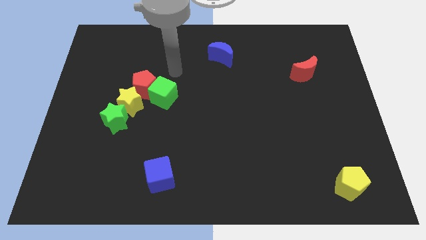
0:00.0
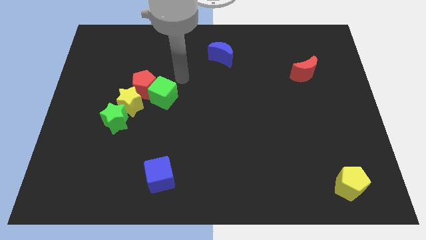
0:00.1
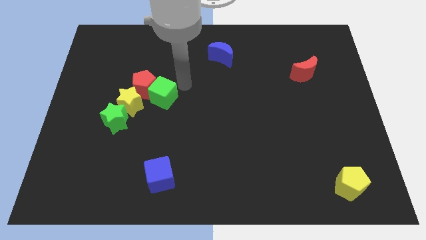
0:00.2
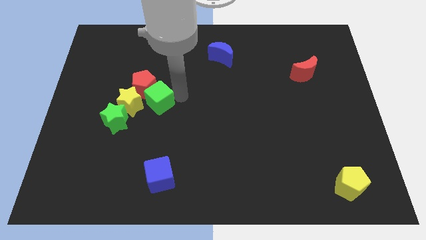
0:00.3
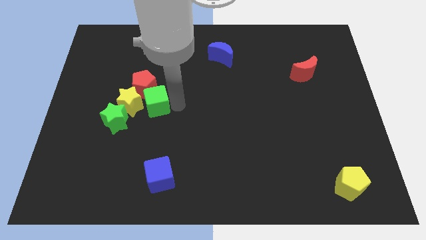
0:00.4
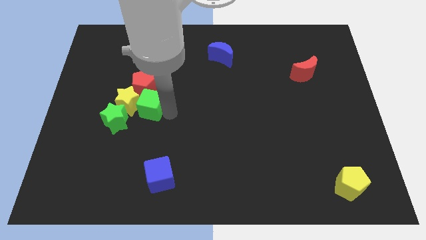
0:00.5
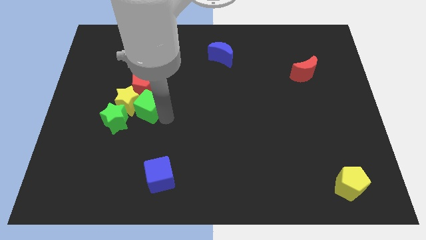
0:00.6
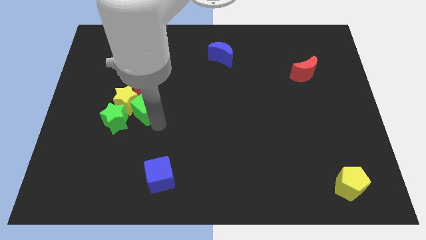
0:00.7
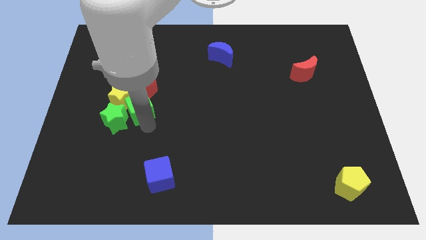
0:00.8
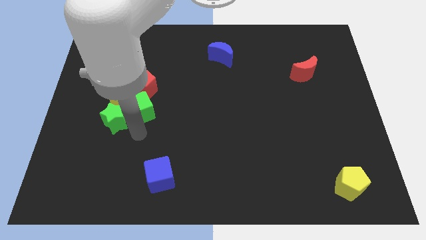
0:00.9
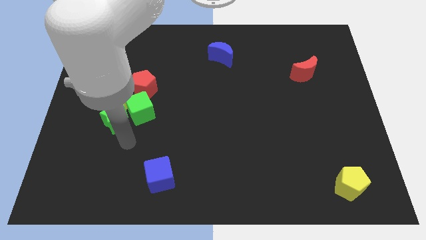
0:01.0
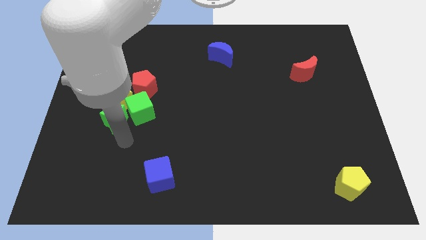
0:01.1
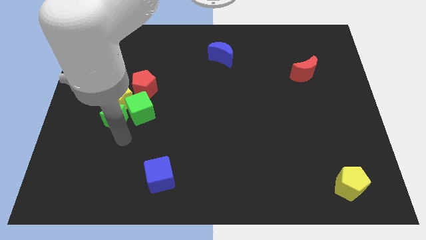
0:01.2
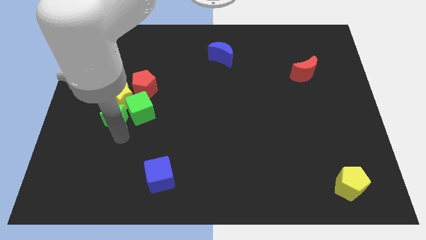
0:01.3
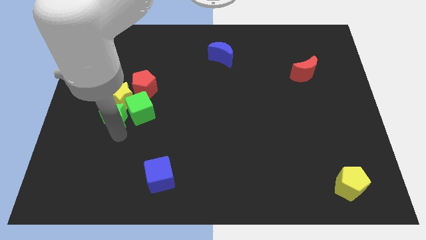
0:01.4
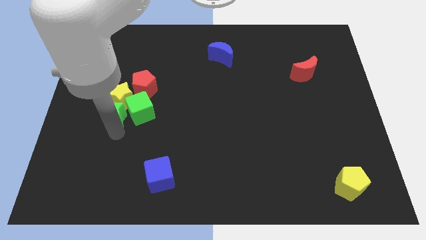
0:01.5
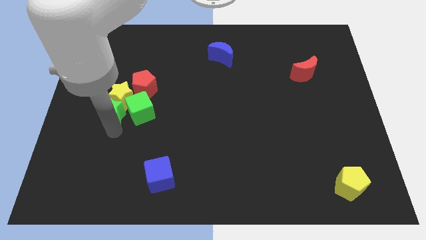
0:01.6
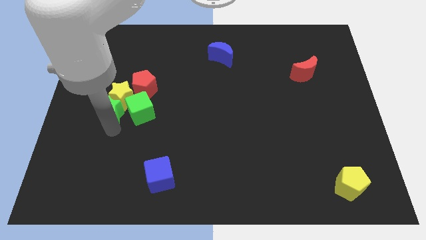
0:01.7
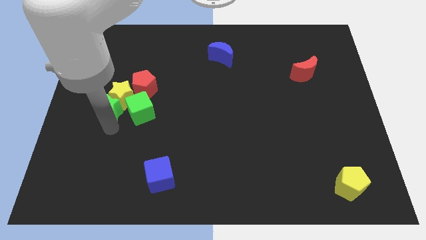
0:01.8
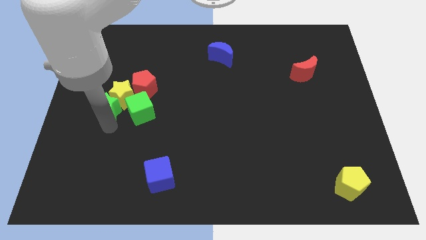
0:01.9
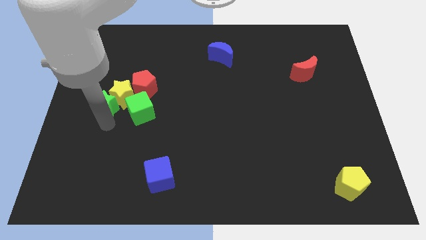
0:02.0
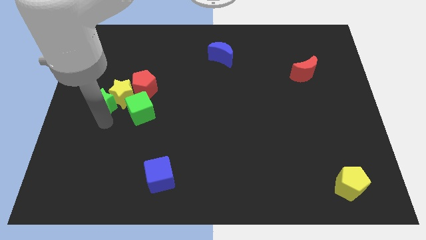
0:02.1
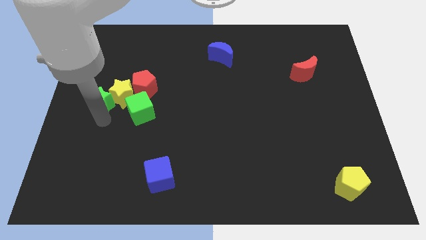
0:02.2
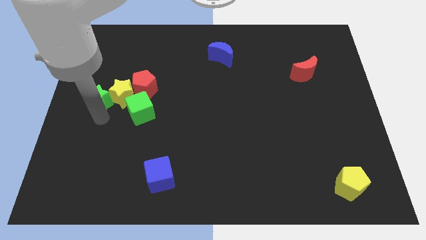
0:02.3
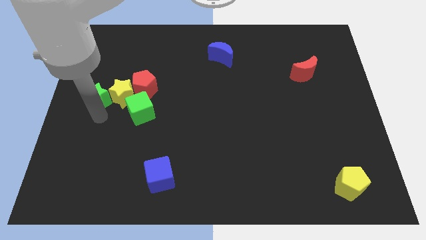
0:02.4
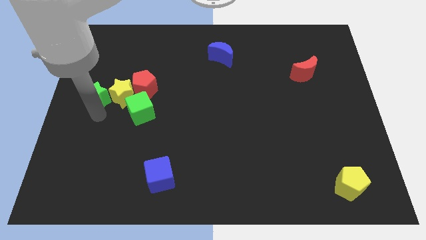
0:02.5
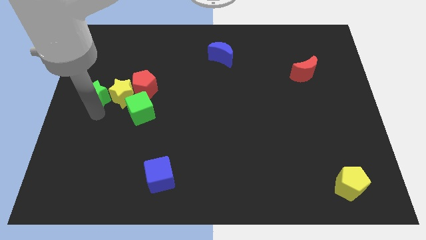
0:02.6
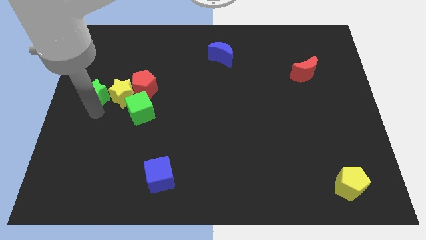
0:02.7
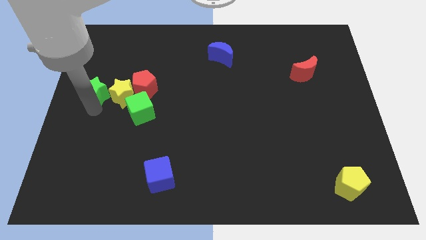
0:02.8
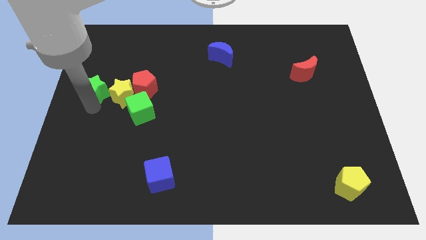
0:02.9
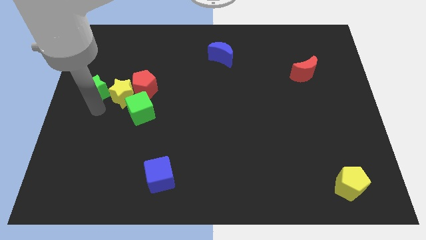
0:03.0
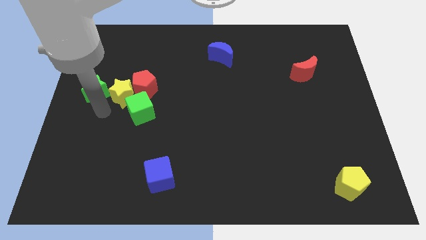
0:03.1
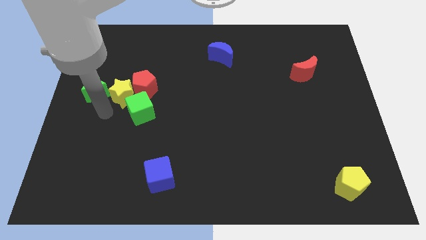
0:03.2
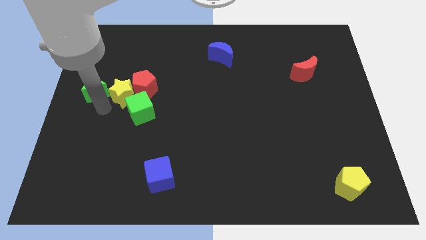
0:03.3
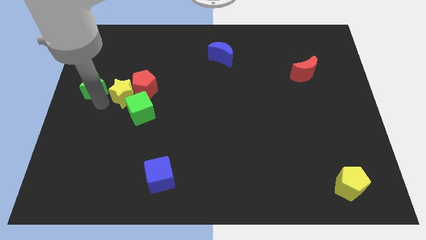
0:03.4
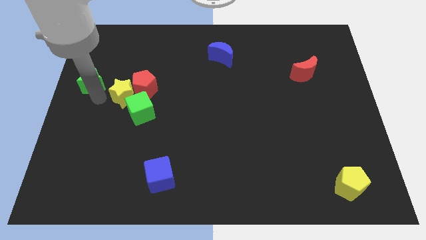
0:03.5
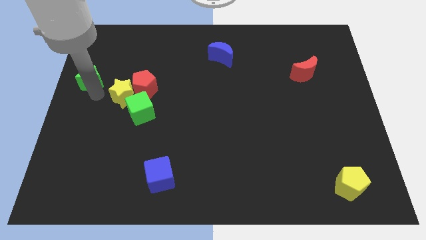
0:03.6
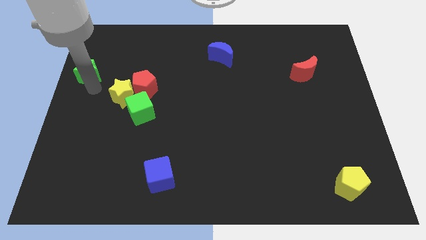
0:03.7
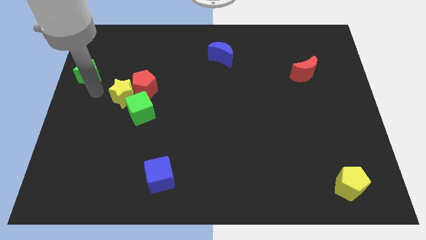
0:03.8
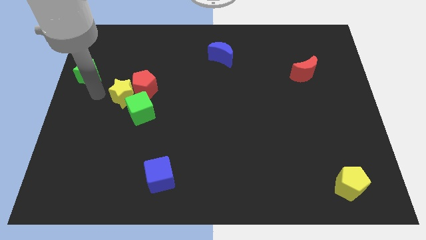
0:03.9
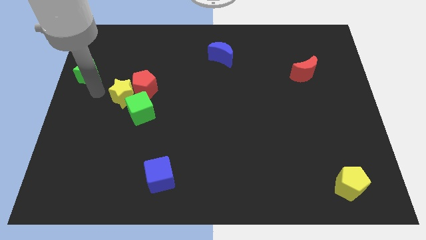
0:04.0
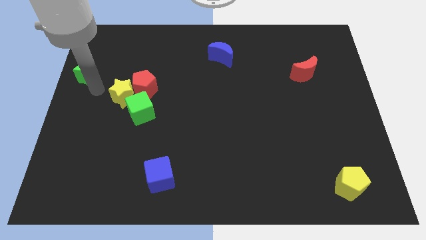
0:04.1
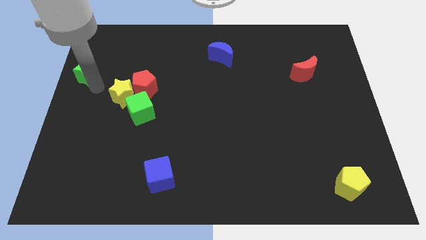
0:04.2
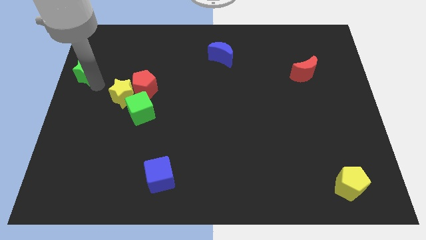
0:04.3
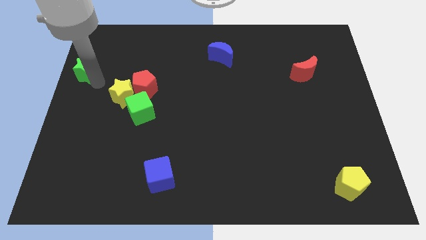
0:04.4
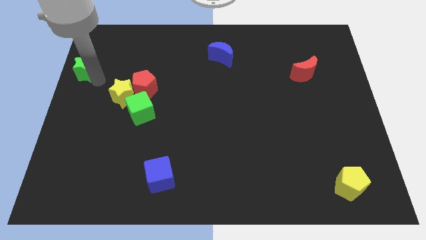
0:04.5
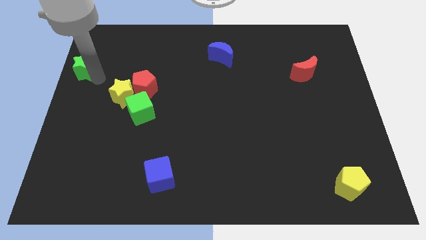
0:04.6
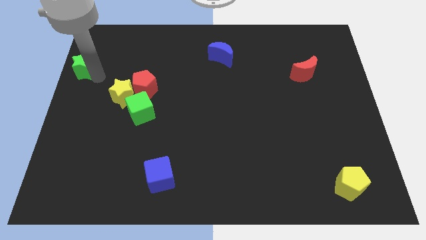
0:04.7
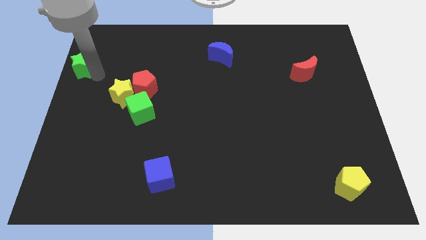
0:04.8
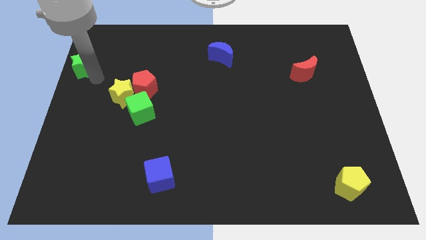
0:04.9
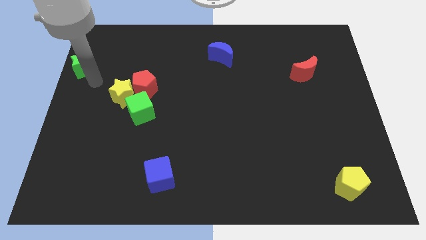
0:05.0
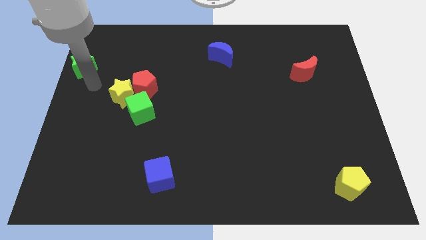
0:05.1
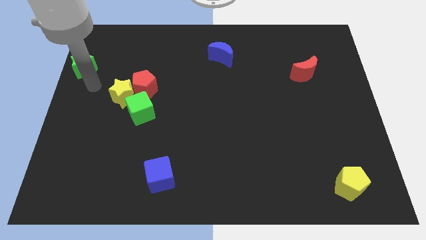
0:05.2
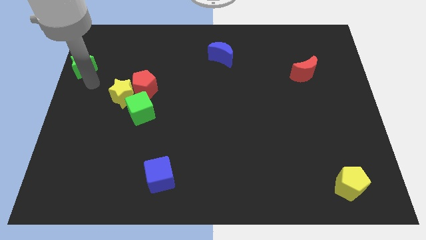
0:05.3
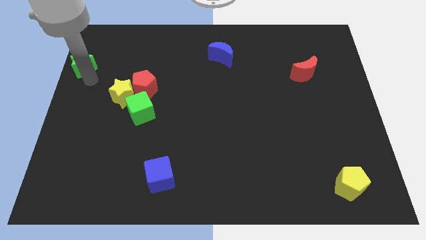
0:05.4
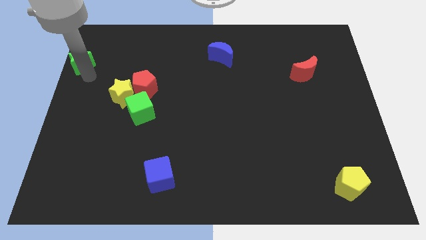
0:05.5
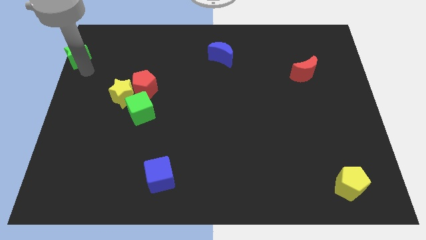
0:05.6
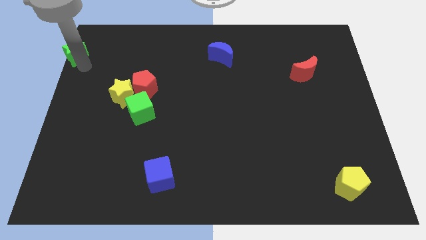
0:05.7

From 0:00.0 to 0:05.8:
push the green star to the top left of the board

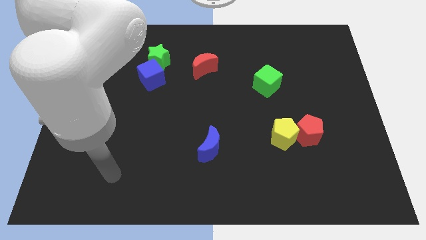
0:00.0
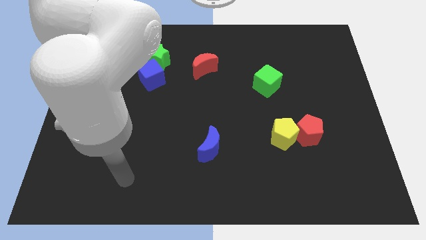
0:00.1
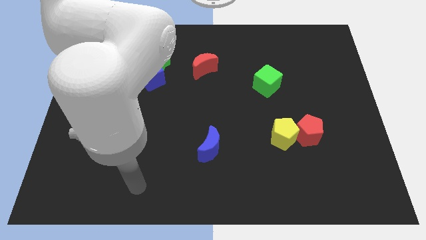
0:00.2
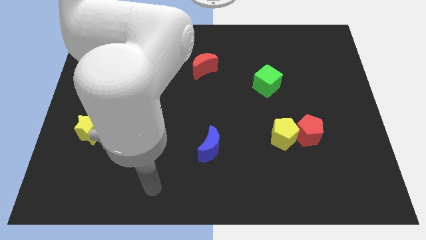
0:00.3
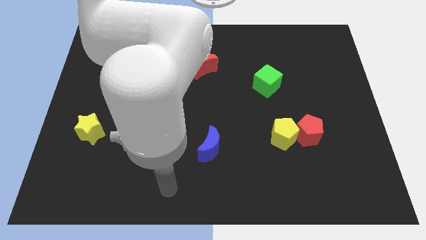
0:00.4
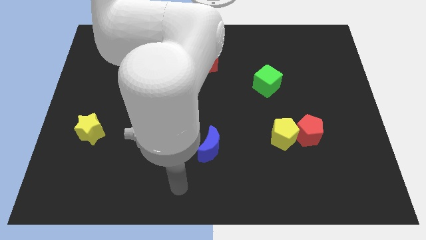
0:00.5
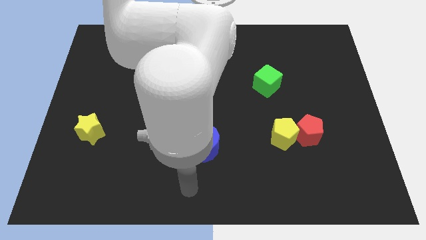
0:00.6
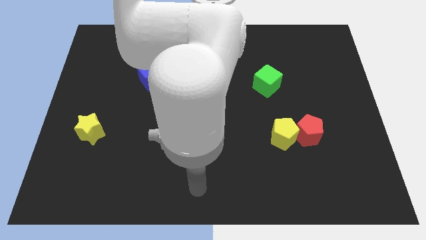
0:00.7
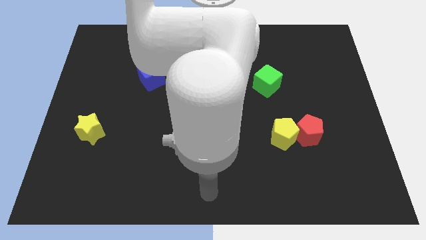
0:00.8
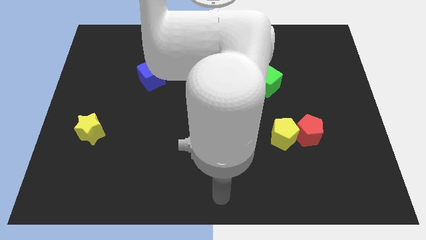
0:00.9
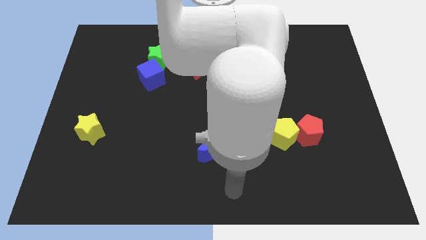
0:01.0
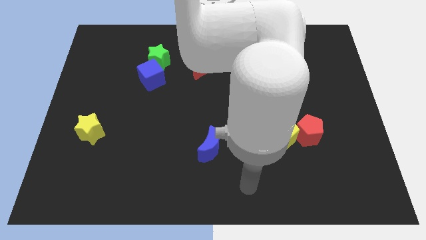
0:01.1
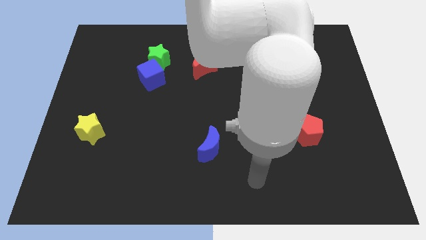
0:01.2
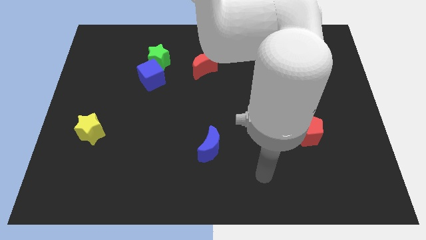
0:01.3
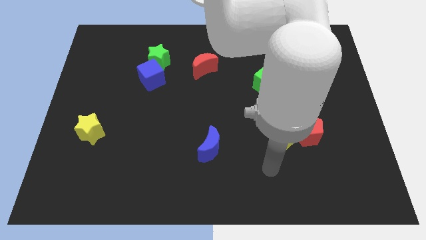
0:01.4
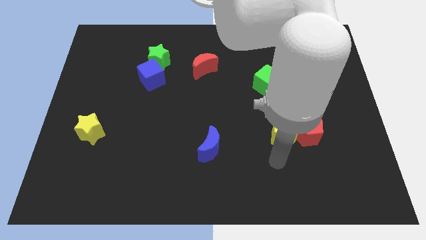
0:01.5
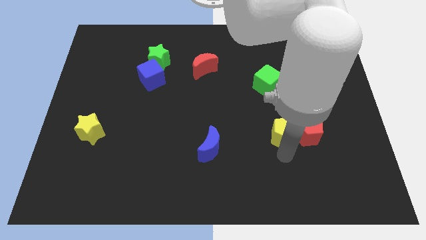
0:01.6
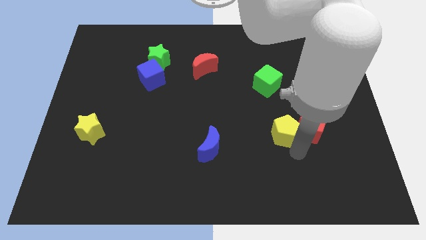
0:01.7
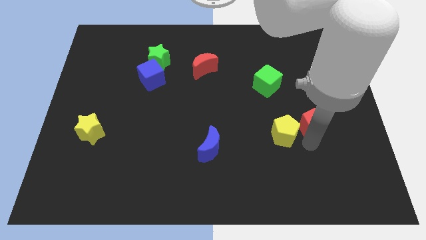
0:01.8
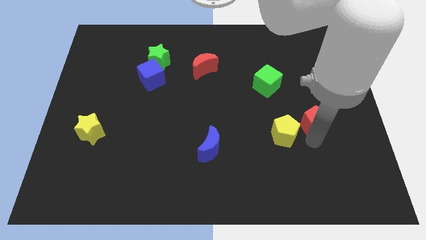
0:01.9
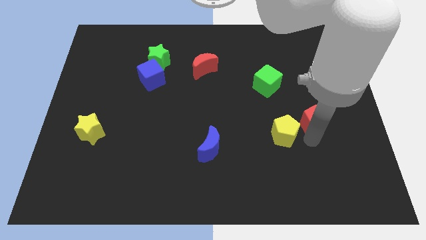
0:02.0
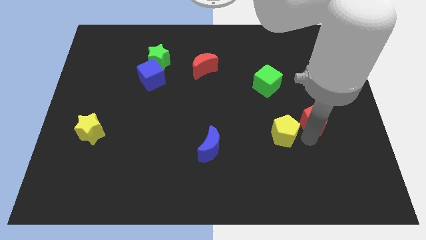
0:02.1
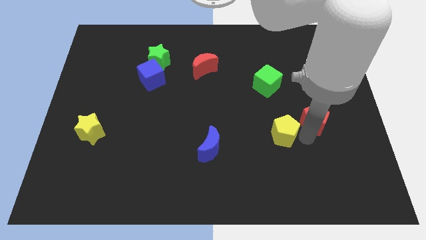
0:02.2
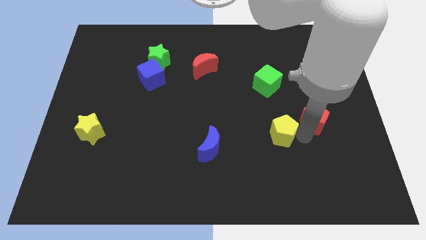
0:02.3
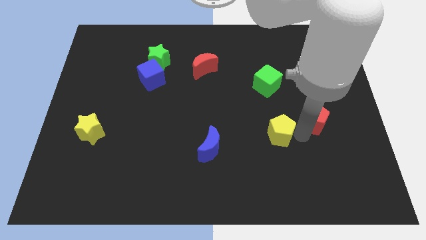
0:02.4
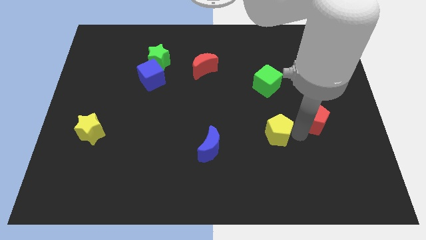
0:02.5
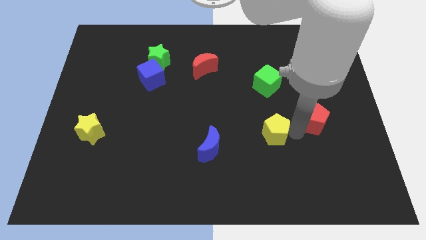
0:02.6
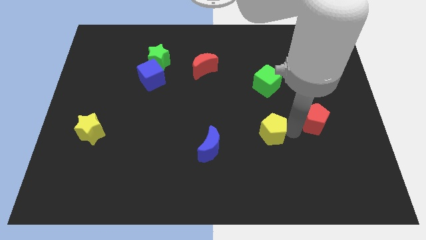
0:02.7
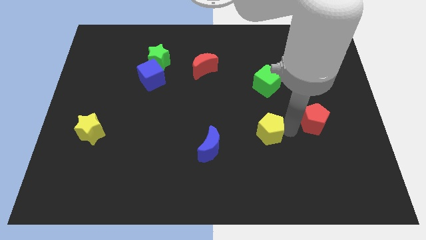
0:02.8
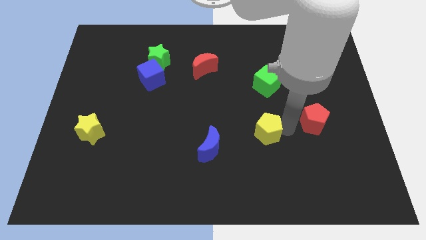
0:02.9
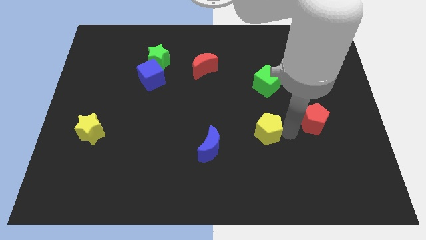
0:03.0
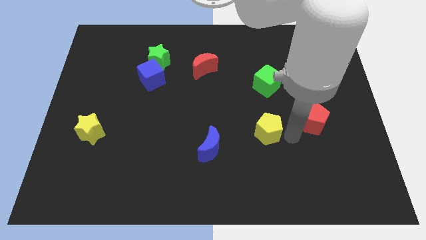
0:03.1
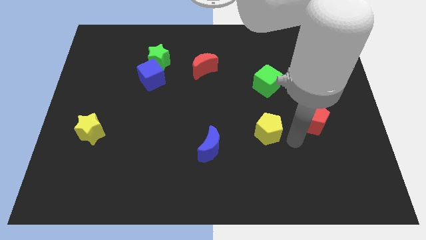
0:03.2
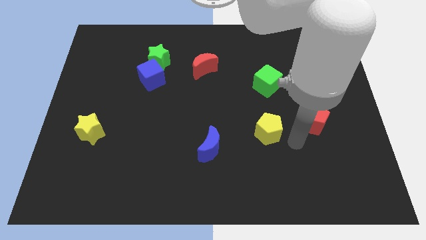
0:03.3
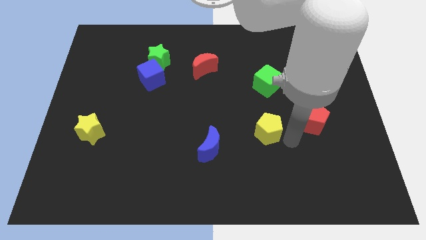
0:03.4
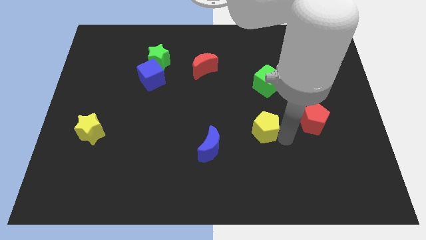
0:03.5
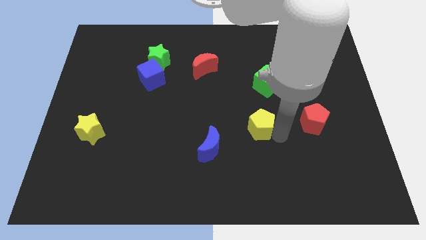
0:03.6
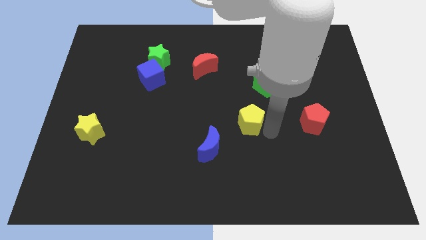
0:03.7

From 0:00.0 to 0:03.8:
put the yellow pentagon to the center of the board
